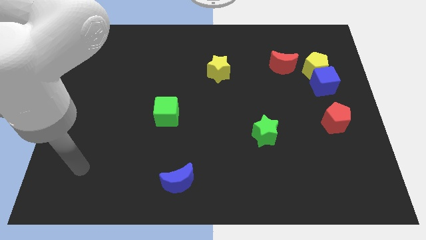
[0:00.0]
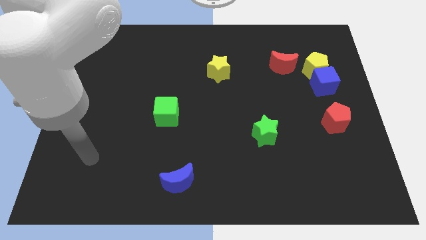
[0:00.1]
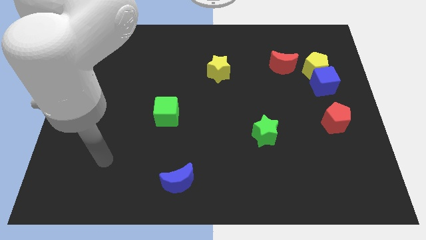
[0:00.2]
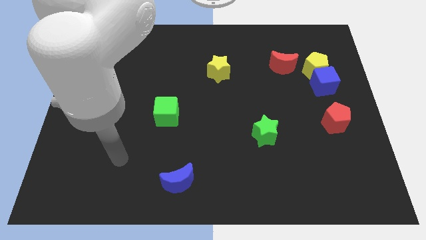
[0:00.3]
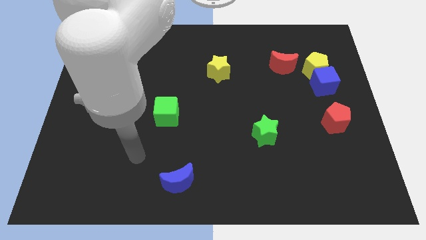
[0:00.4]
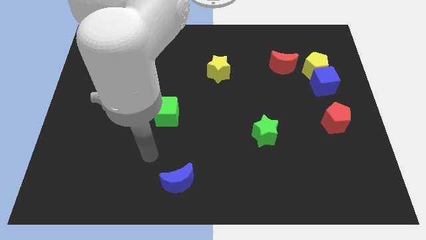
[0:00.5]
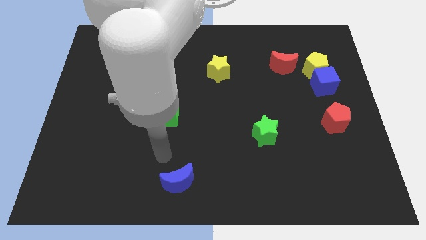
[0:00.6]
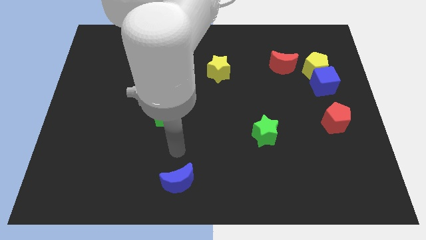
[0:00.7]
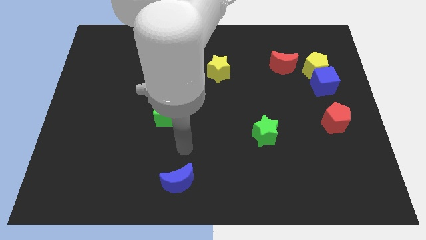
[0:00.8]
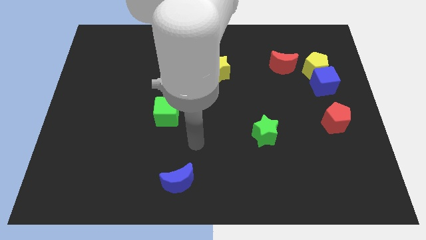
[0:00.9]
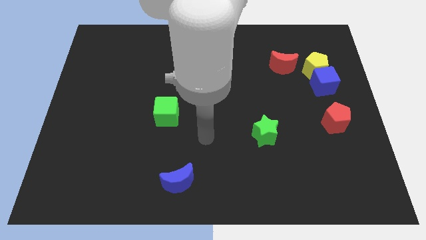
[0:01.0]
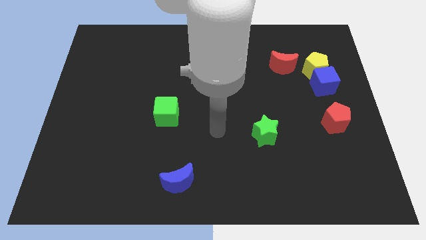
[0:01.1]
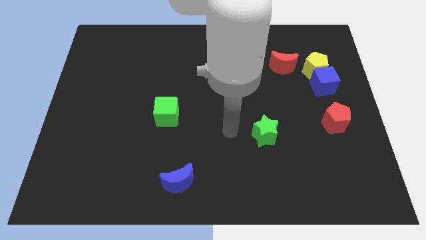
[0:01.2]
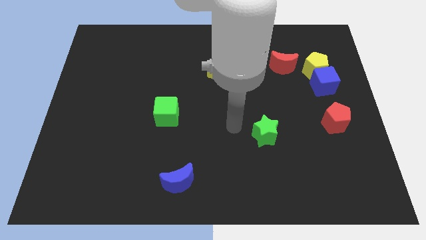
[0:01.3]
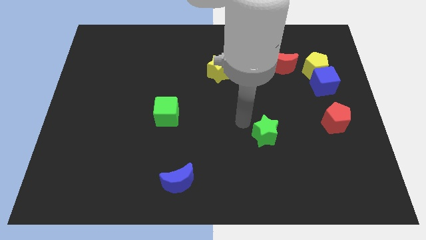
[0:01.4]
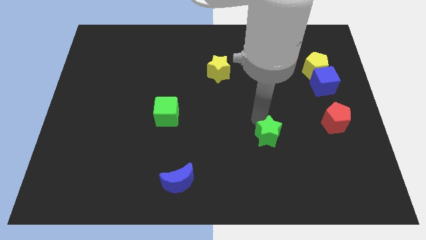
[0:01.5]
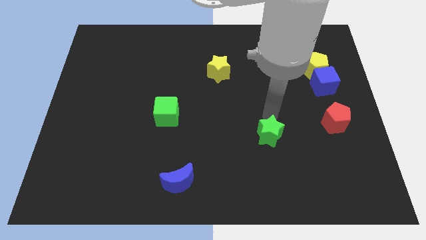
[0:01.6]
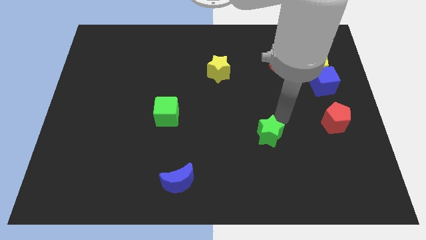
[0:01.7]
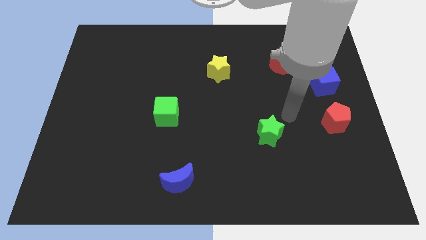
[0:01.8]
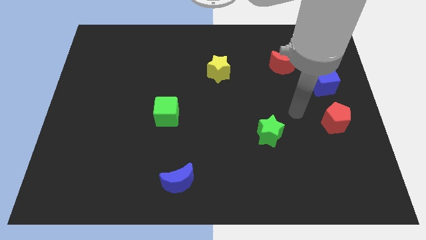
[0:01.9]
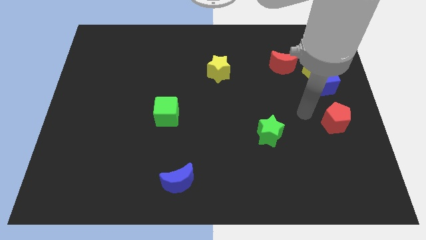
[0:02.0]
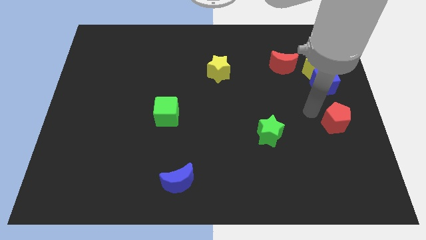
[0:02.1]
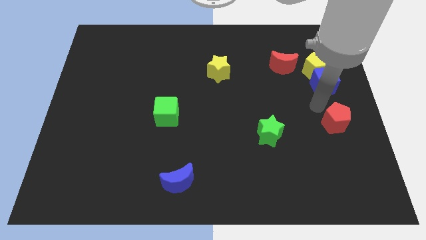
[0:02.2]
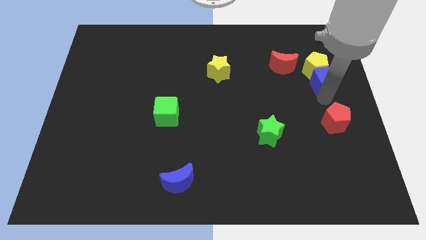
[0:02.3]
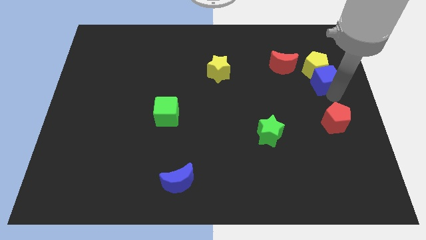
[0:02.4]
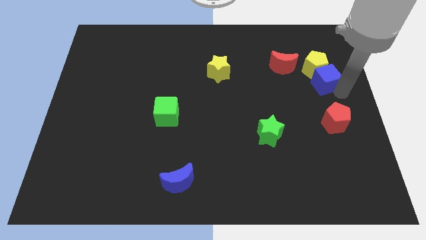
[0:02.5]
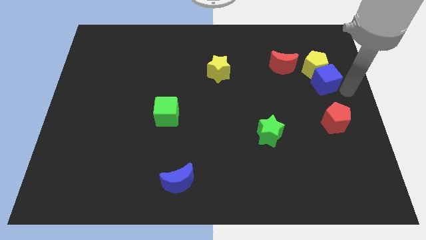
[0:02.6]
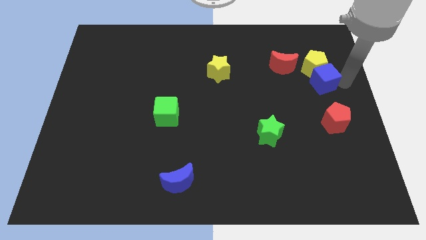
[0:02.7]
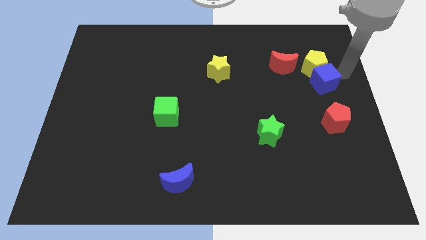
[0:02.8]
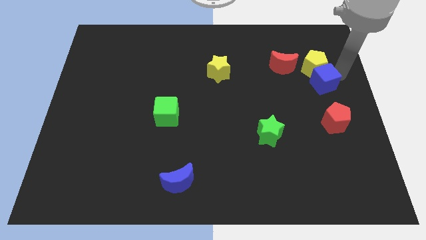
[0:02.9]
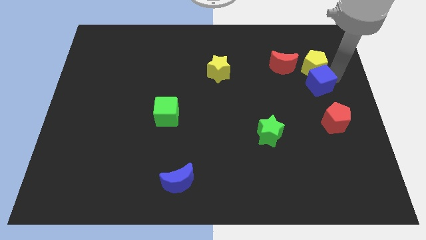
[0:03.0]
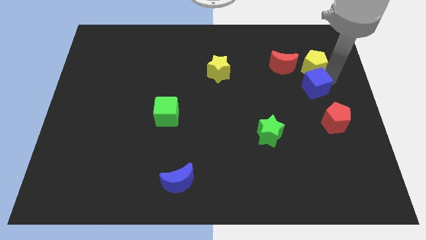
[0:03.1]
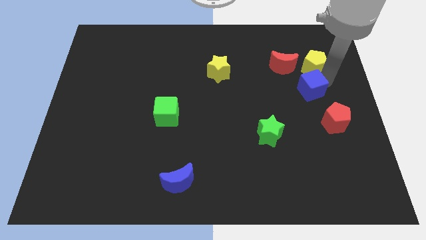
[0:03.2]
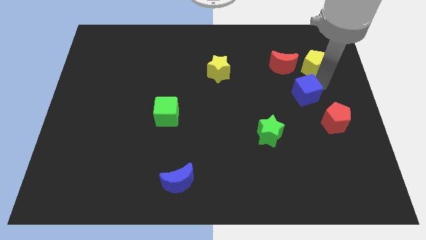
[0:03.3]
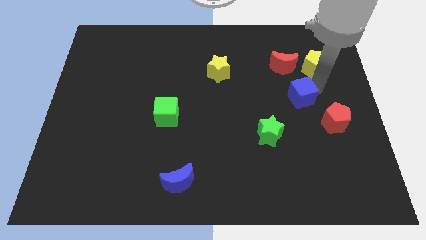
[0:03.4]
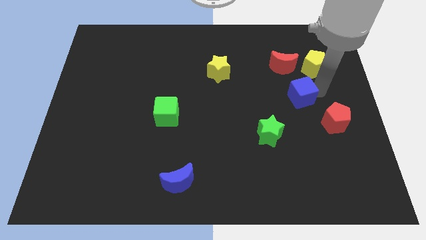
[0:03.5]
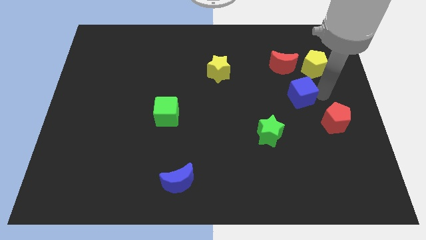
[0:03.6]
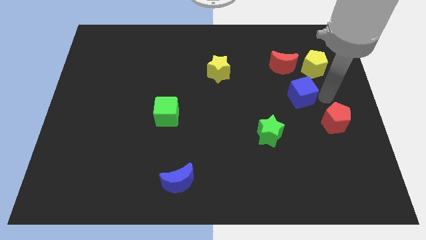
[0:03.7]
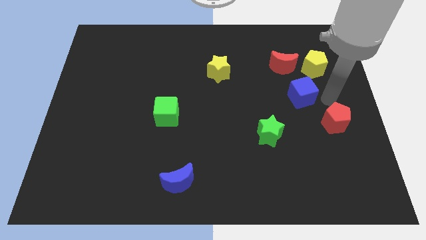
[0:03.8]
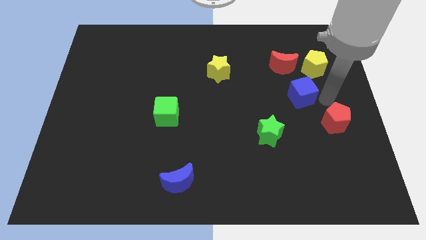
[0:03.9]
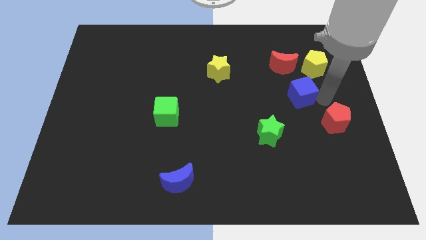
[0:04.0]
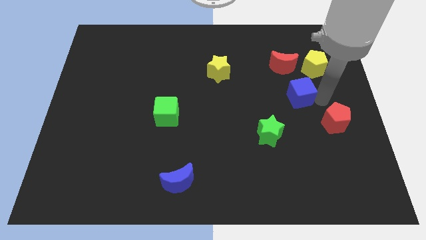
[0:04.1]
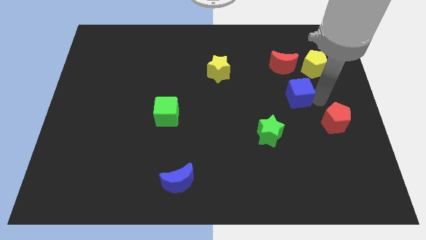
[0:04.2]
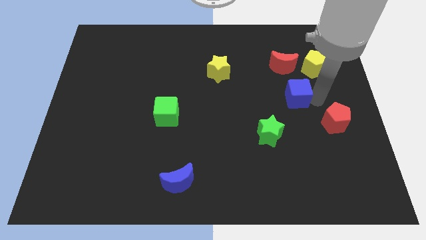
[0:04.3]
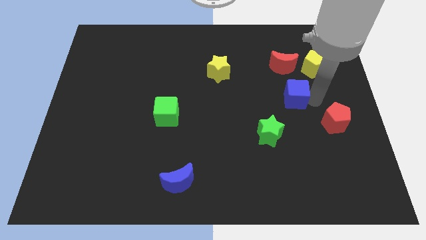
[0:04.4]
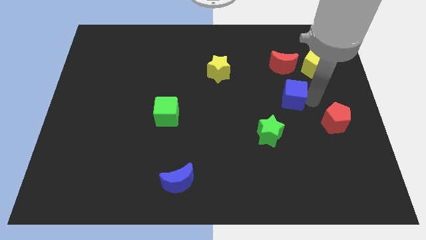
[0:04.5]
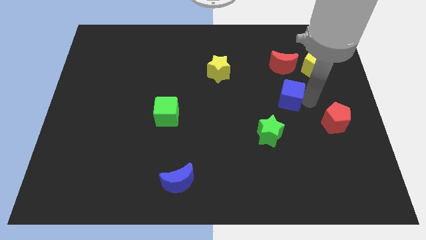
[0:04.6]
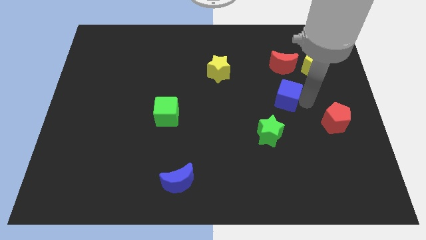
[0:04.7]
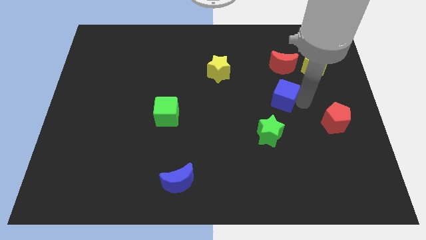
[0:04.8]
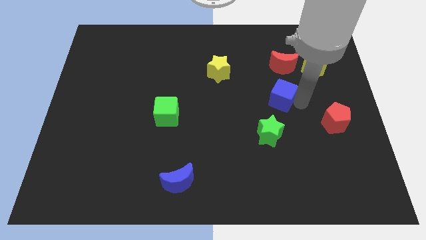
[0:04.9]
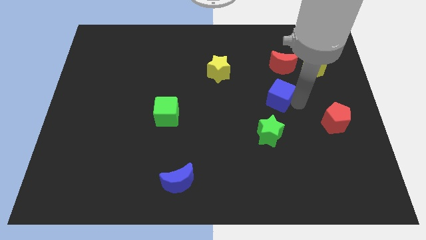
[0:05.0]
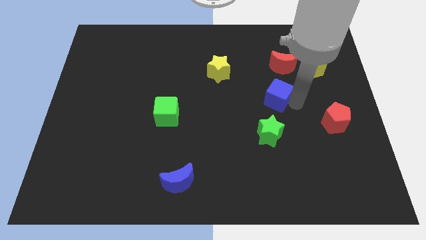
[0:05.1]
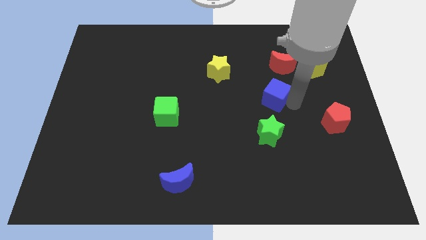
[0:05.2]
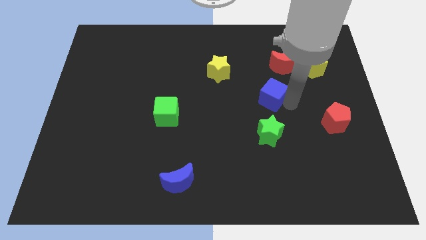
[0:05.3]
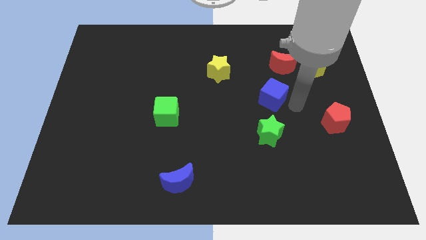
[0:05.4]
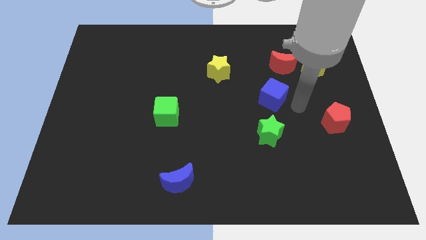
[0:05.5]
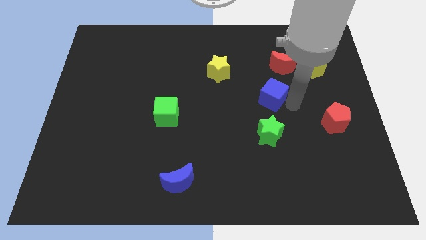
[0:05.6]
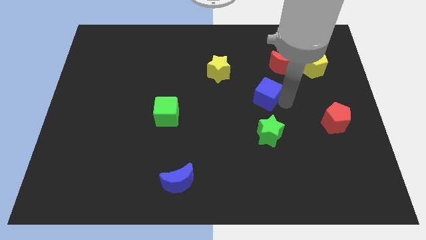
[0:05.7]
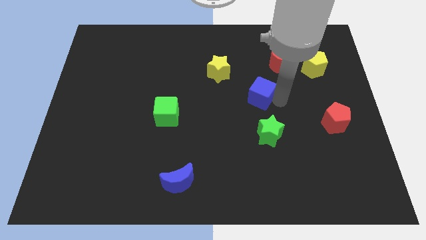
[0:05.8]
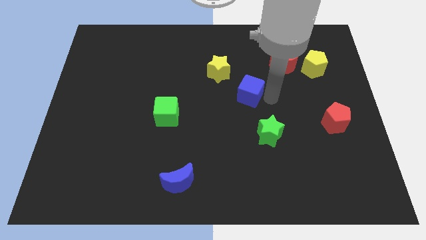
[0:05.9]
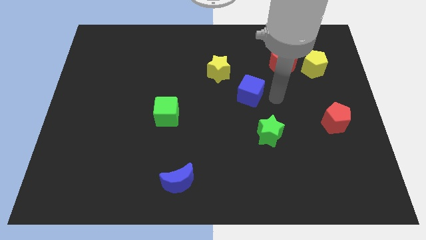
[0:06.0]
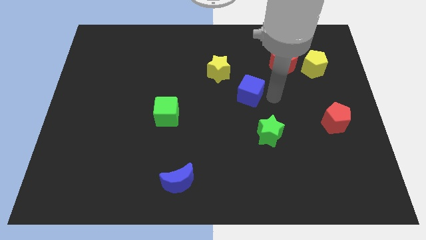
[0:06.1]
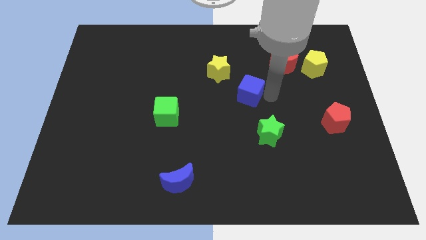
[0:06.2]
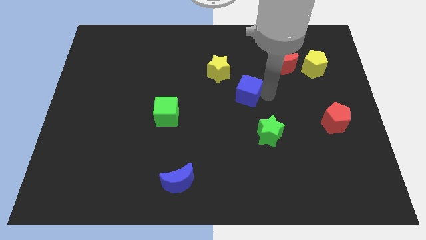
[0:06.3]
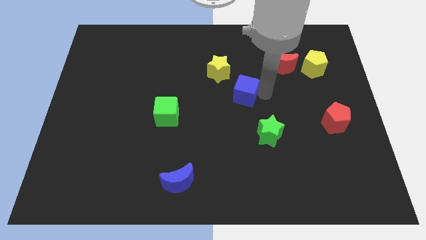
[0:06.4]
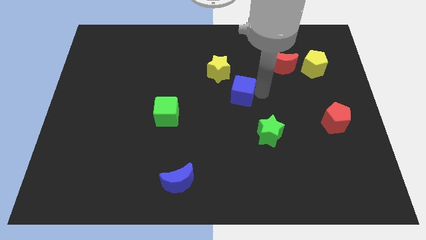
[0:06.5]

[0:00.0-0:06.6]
slide the blue cube to the left

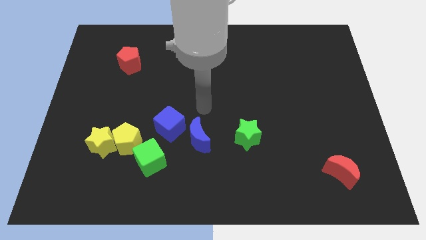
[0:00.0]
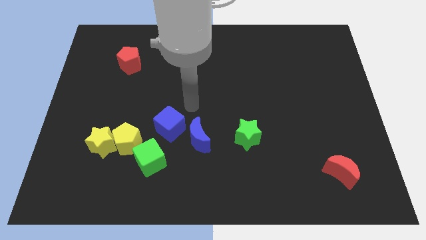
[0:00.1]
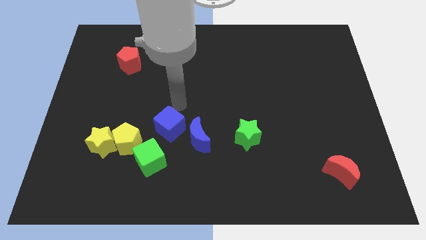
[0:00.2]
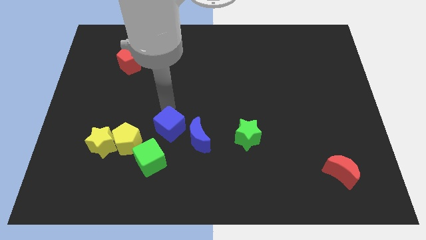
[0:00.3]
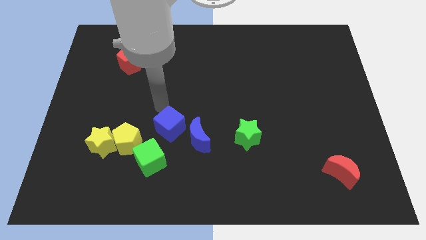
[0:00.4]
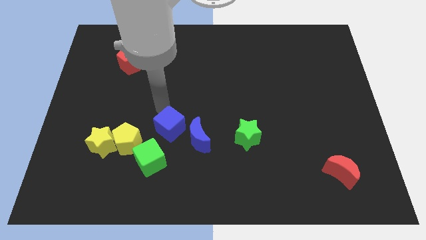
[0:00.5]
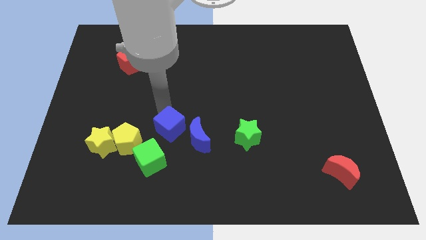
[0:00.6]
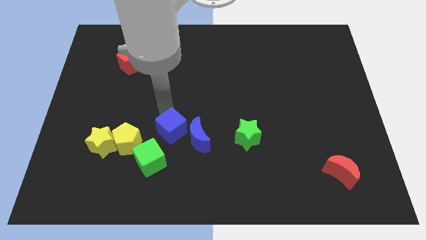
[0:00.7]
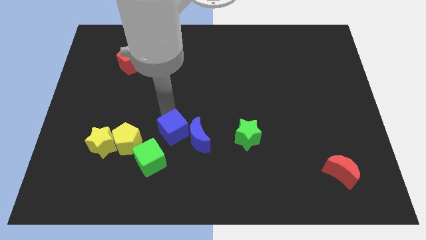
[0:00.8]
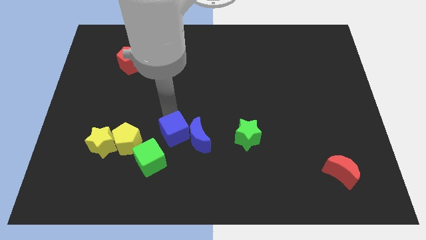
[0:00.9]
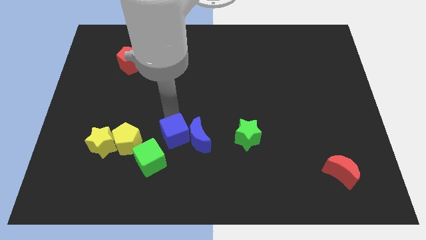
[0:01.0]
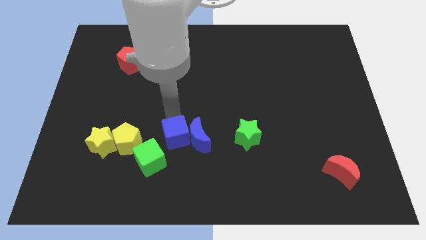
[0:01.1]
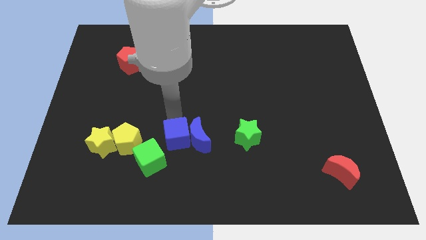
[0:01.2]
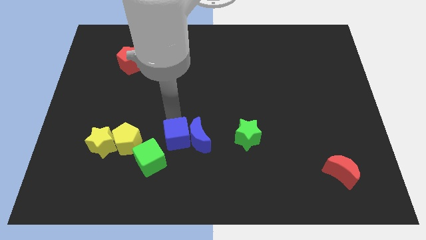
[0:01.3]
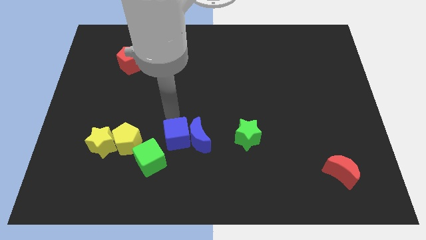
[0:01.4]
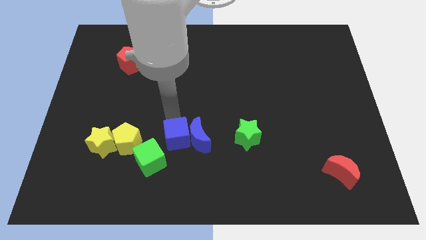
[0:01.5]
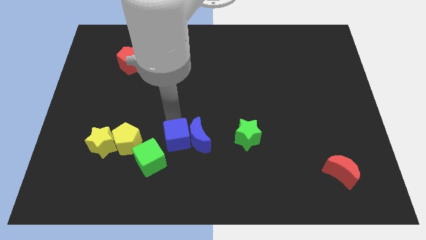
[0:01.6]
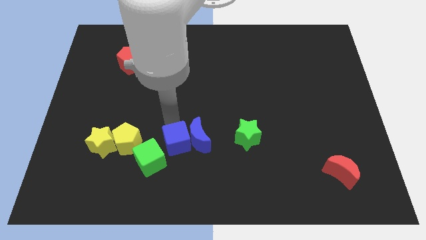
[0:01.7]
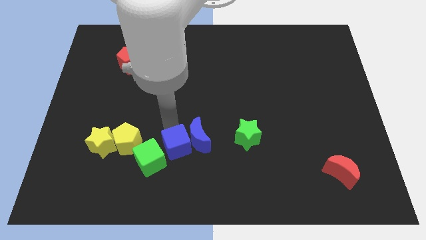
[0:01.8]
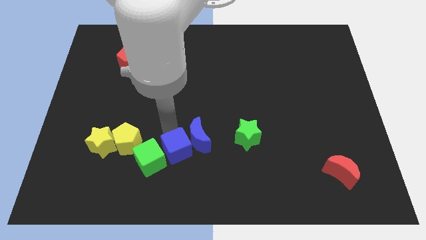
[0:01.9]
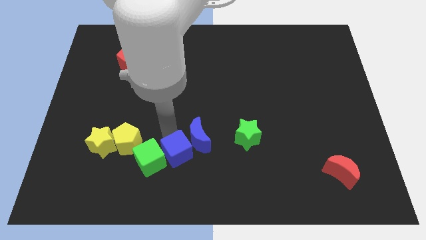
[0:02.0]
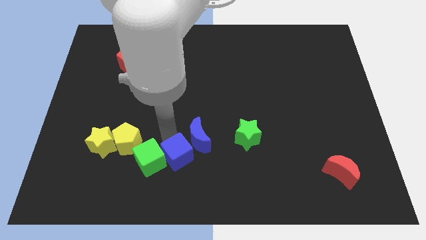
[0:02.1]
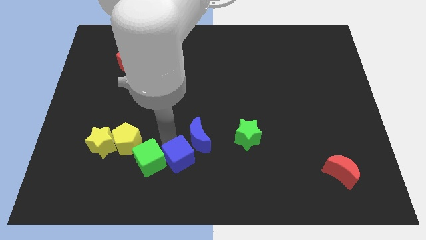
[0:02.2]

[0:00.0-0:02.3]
slightly push the blue cube downwards and to the right diagonally
